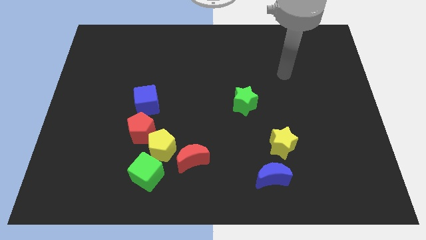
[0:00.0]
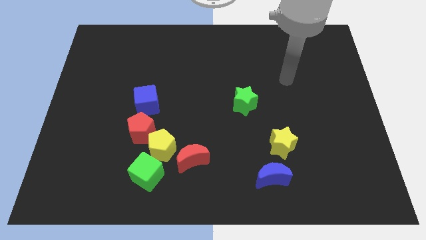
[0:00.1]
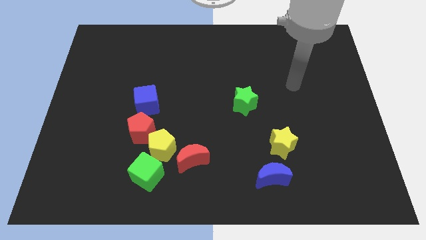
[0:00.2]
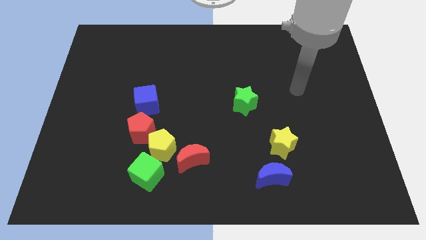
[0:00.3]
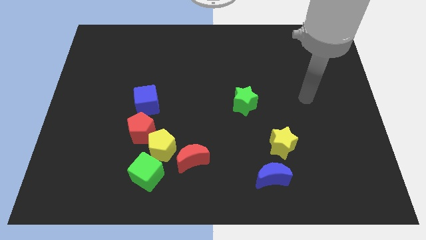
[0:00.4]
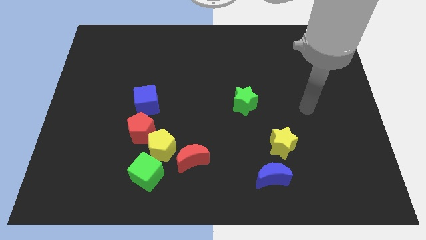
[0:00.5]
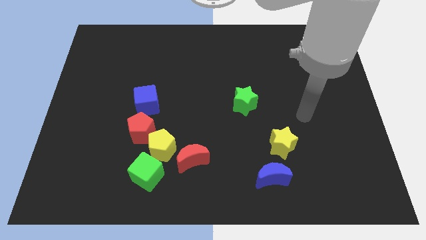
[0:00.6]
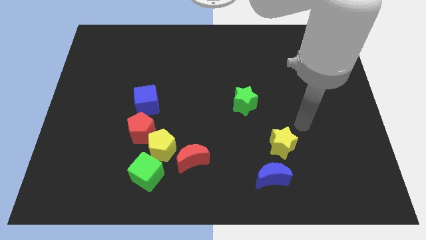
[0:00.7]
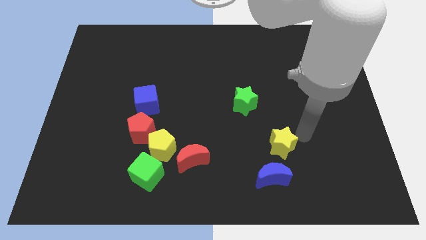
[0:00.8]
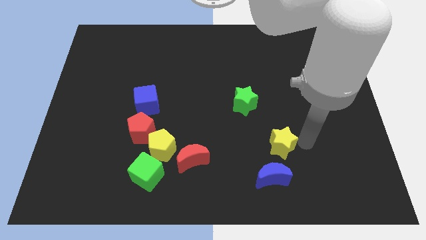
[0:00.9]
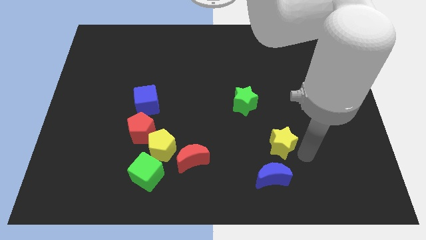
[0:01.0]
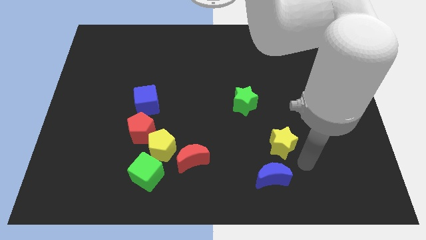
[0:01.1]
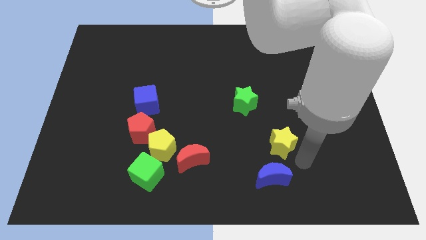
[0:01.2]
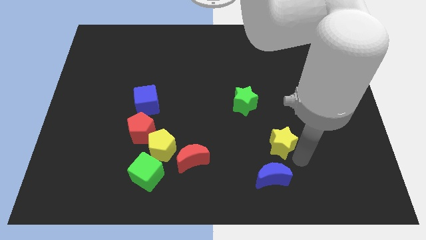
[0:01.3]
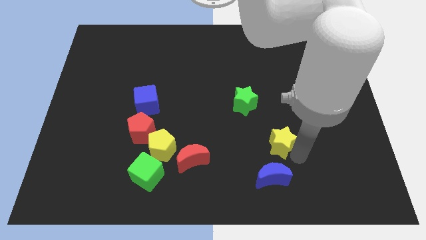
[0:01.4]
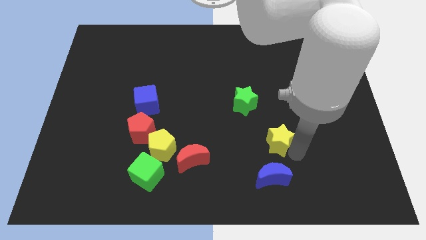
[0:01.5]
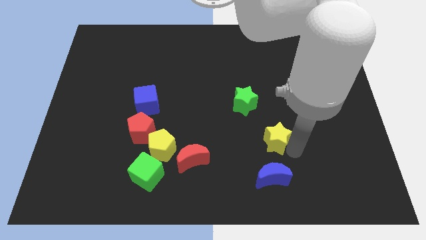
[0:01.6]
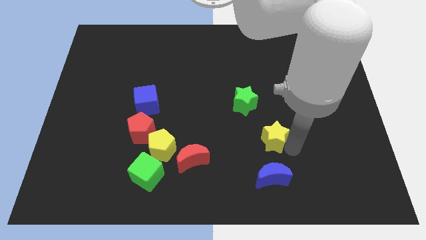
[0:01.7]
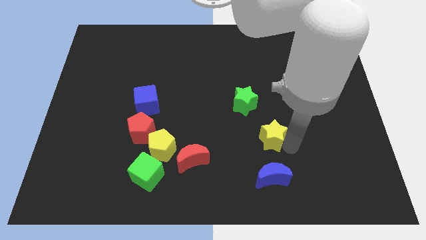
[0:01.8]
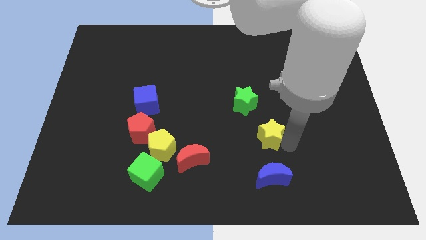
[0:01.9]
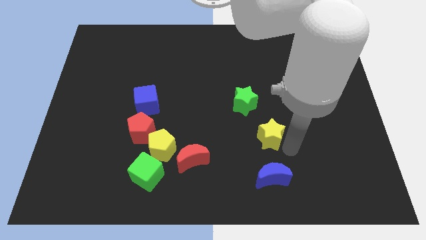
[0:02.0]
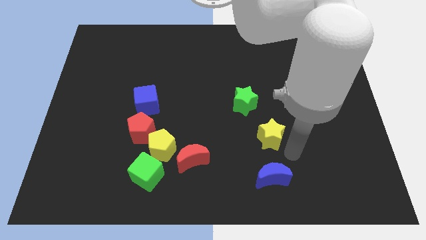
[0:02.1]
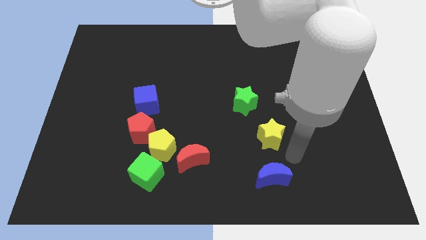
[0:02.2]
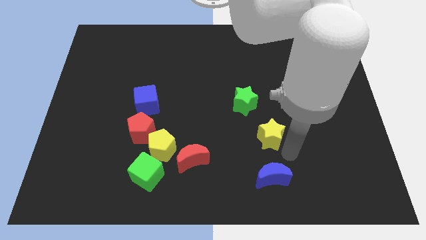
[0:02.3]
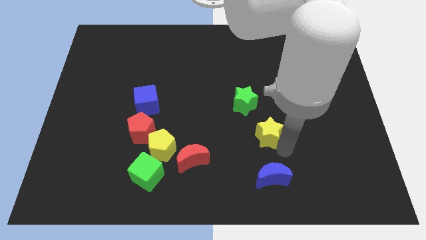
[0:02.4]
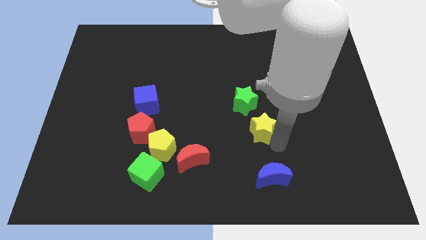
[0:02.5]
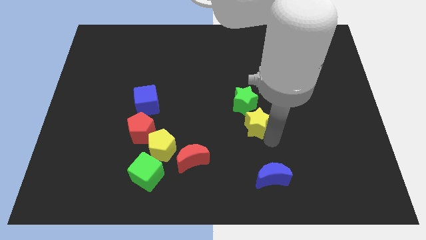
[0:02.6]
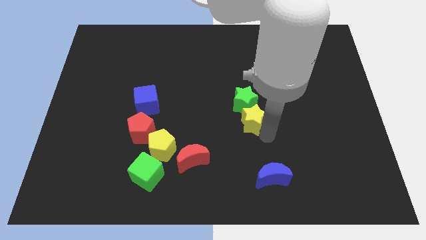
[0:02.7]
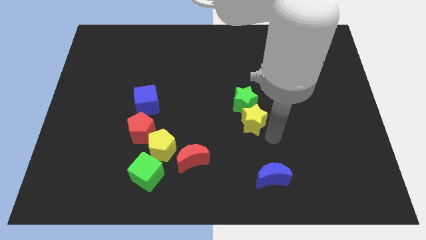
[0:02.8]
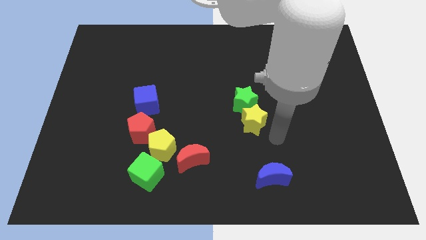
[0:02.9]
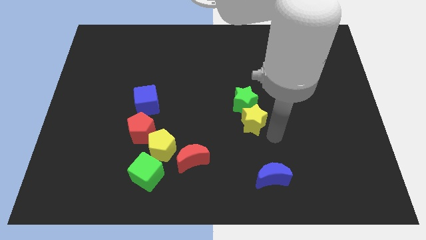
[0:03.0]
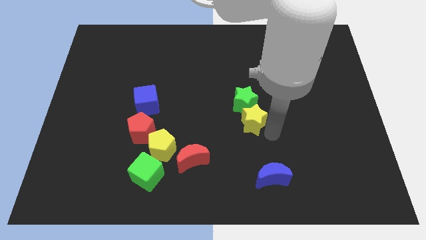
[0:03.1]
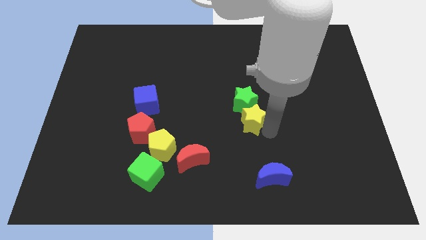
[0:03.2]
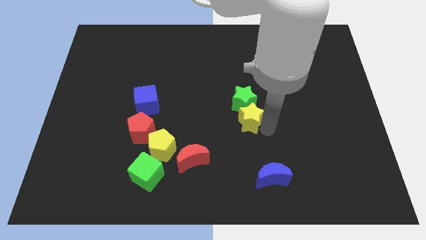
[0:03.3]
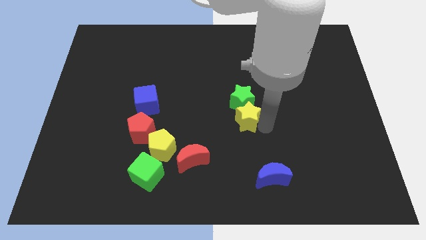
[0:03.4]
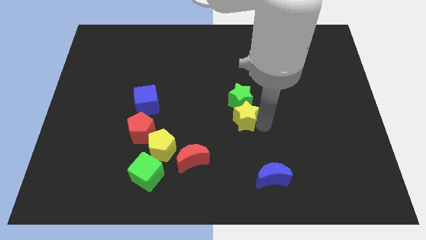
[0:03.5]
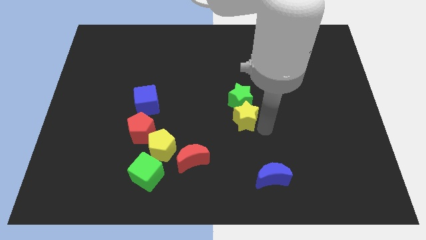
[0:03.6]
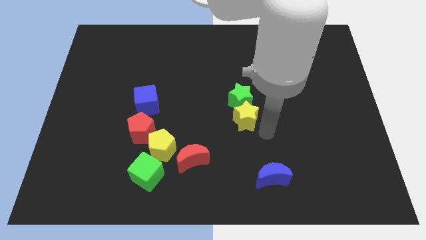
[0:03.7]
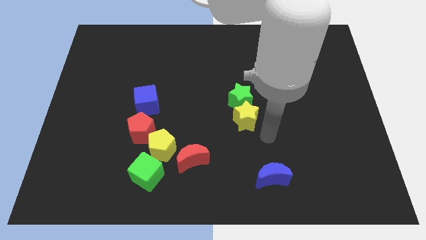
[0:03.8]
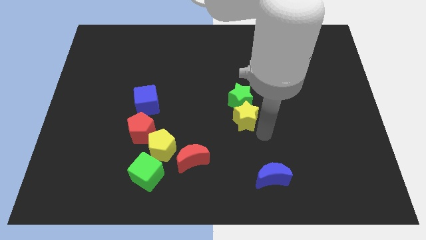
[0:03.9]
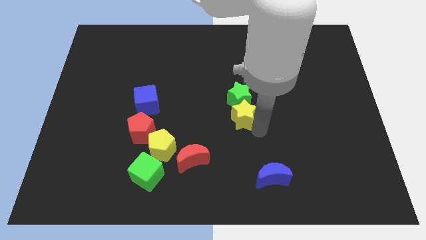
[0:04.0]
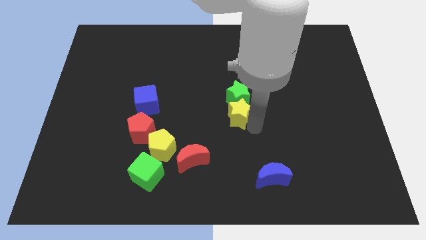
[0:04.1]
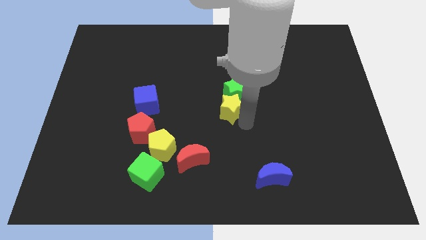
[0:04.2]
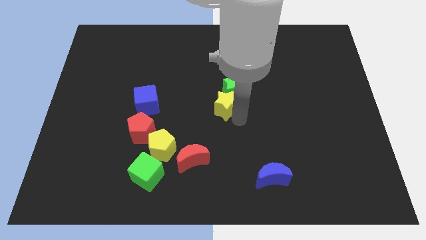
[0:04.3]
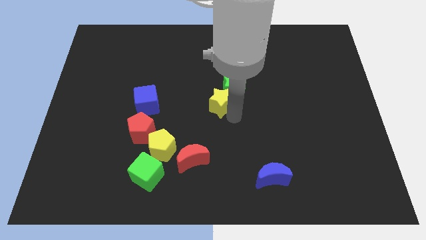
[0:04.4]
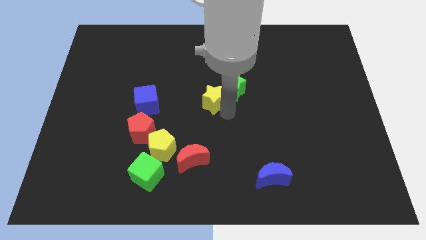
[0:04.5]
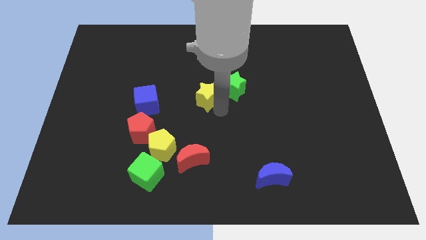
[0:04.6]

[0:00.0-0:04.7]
push the yellow star up and then to the left

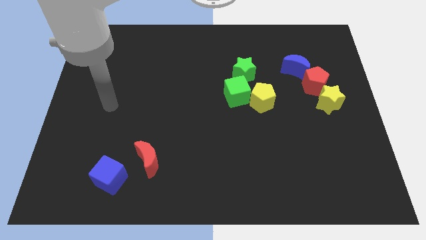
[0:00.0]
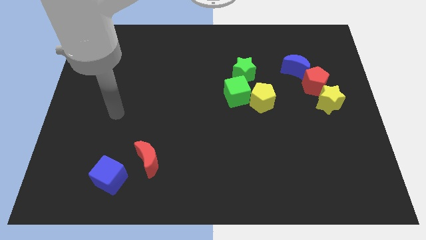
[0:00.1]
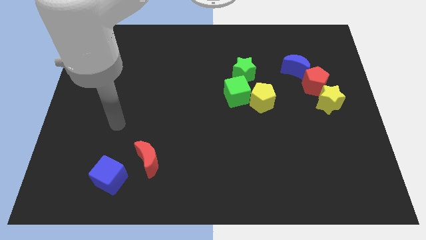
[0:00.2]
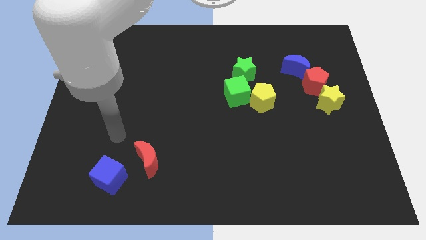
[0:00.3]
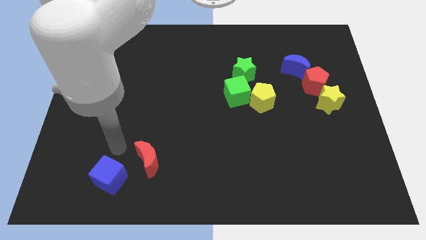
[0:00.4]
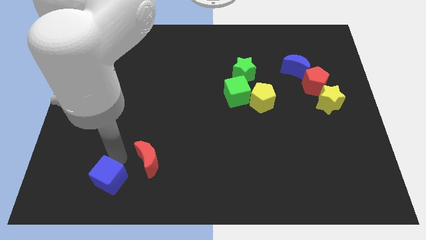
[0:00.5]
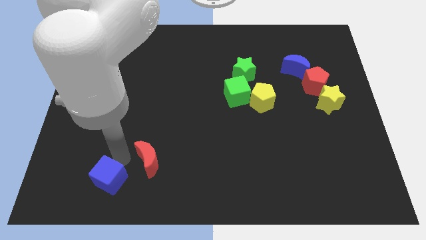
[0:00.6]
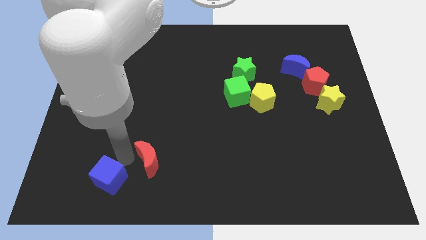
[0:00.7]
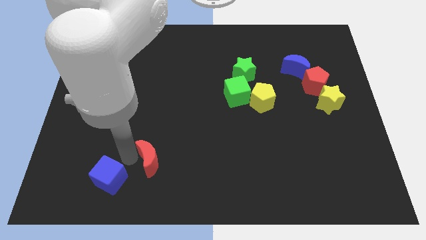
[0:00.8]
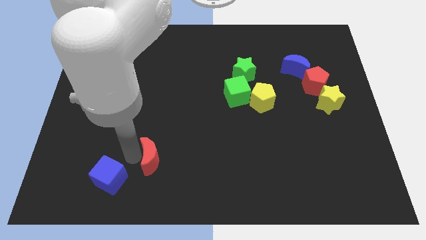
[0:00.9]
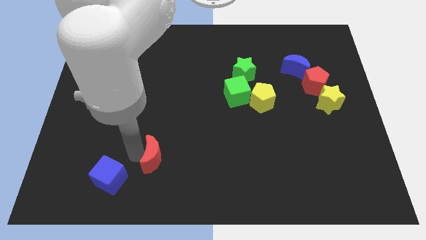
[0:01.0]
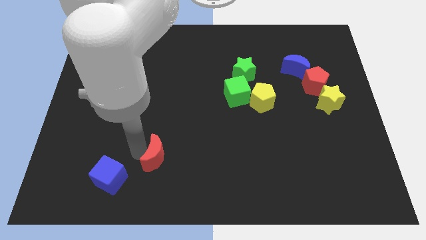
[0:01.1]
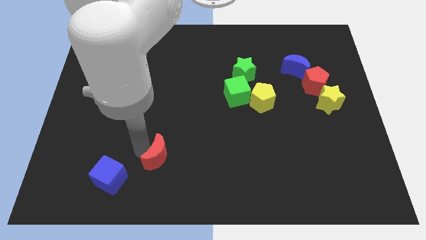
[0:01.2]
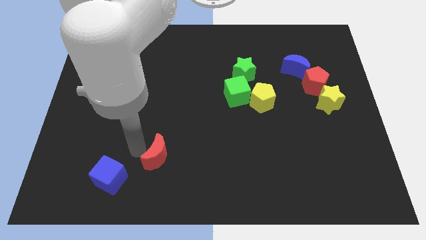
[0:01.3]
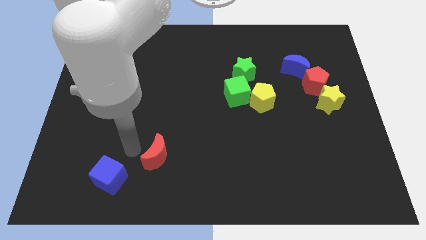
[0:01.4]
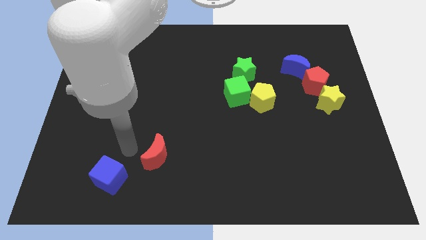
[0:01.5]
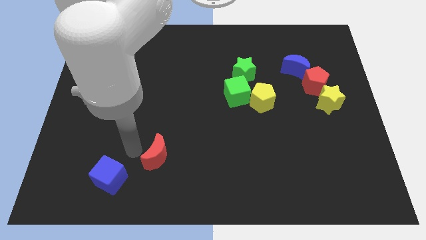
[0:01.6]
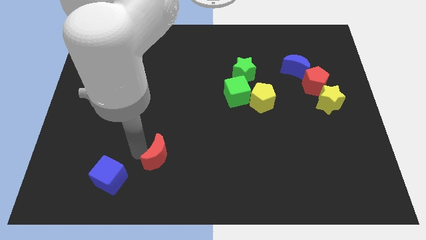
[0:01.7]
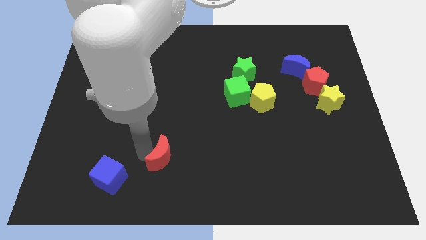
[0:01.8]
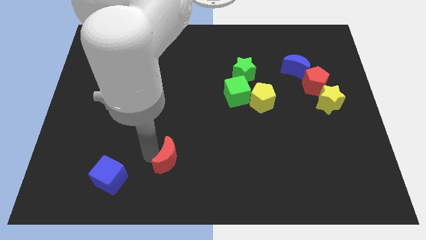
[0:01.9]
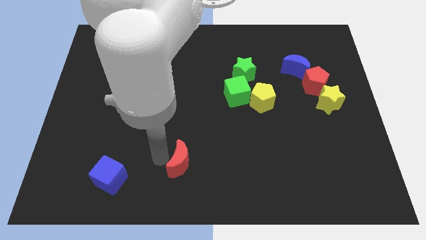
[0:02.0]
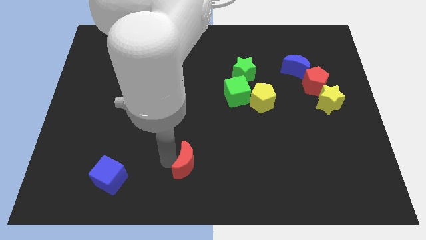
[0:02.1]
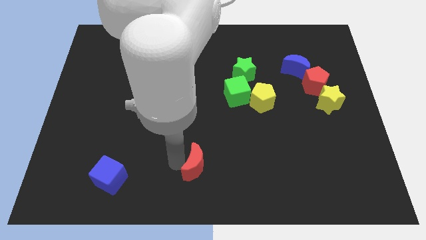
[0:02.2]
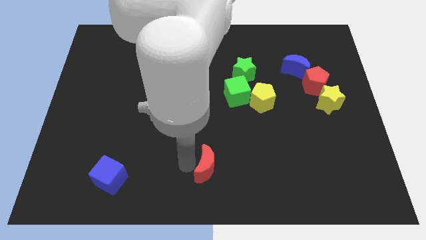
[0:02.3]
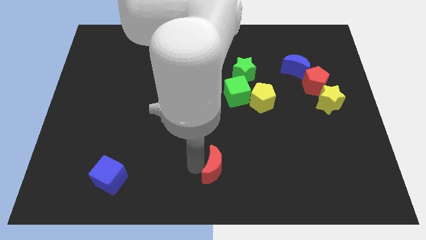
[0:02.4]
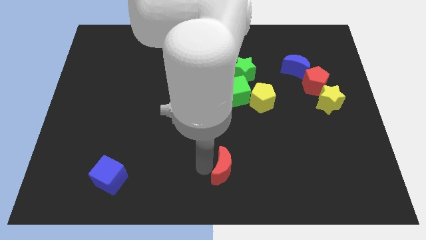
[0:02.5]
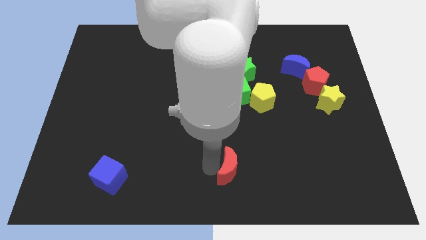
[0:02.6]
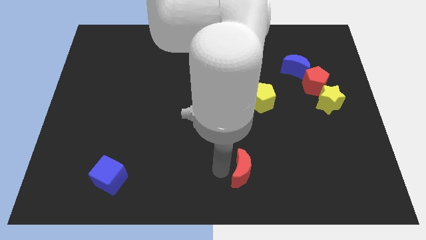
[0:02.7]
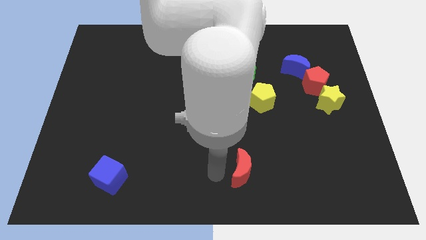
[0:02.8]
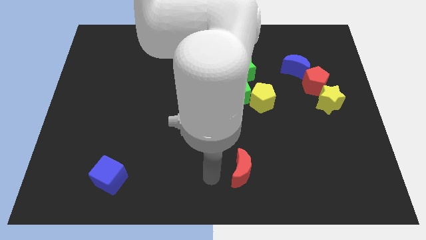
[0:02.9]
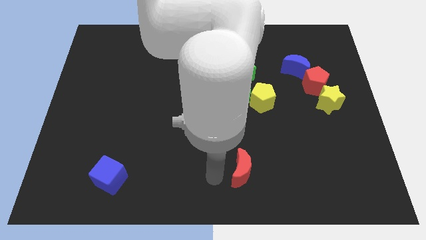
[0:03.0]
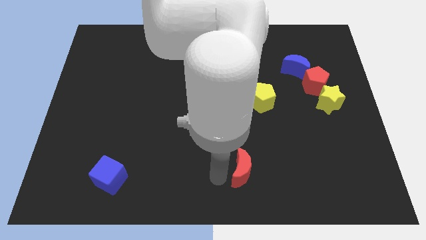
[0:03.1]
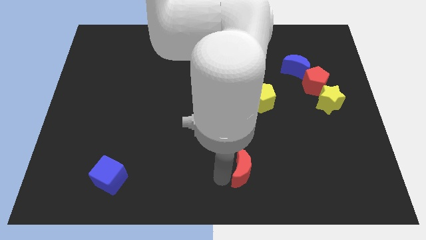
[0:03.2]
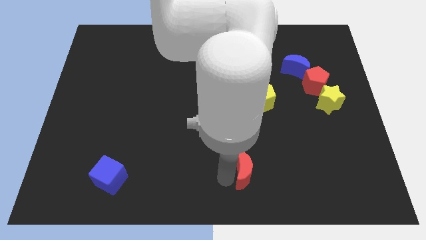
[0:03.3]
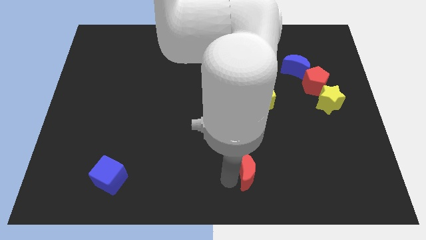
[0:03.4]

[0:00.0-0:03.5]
slide the red moon right
